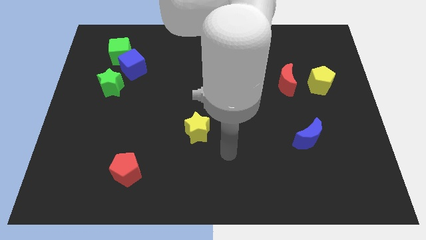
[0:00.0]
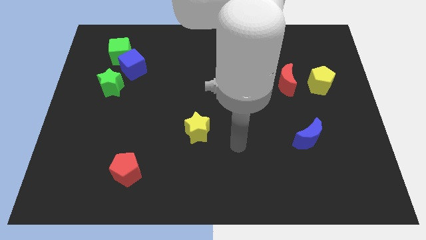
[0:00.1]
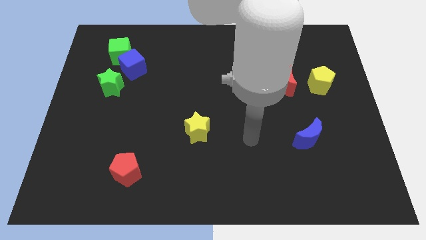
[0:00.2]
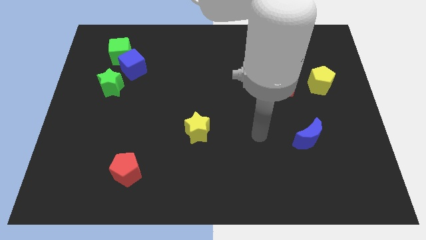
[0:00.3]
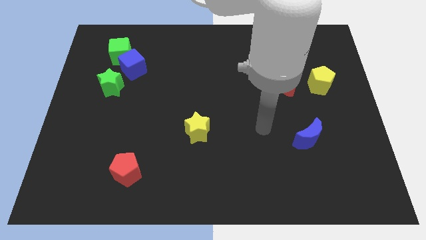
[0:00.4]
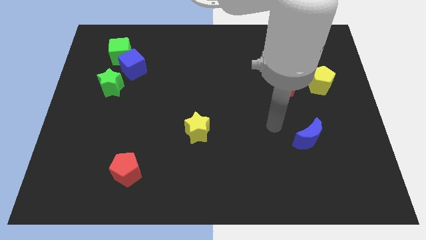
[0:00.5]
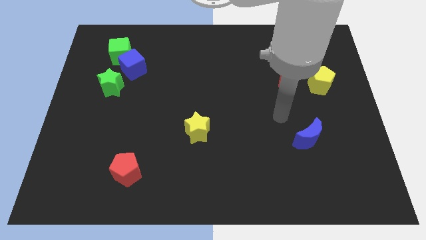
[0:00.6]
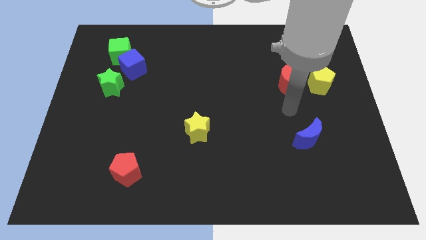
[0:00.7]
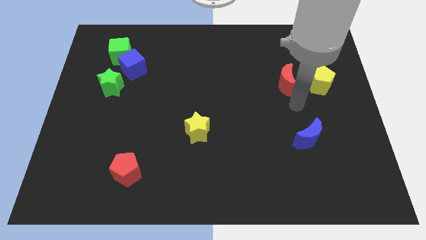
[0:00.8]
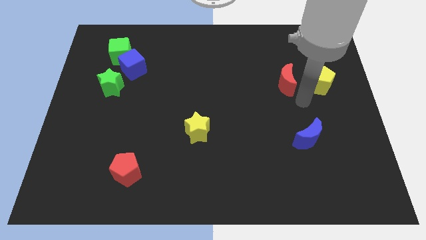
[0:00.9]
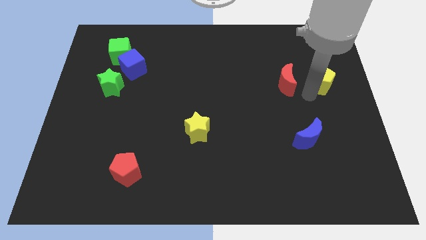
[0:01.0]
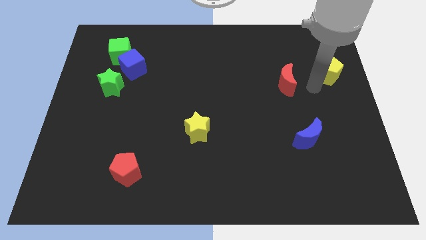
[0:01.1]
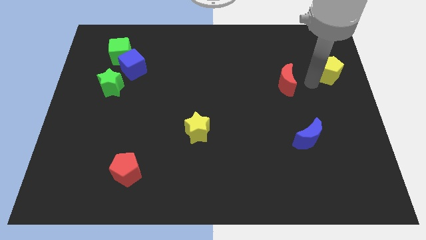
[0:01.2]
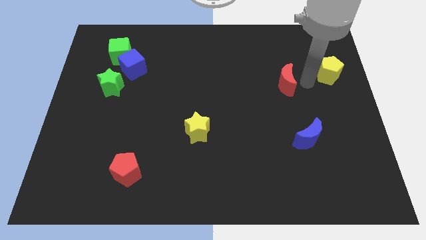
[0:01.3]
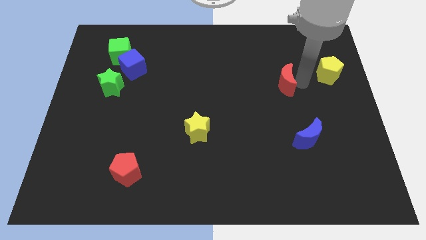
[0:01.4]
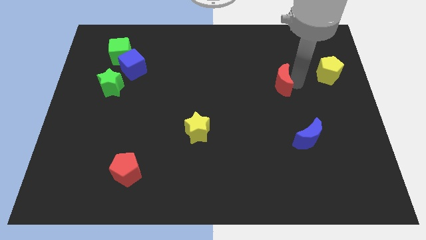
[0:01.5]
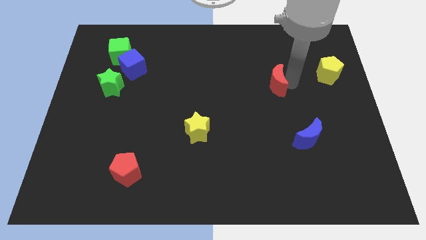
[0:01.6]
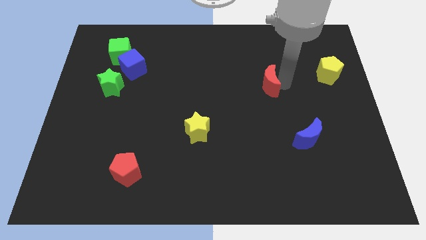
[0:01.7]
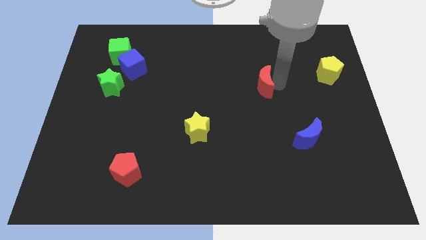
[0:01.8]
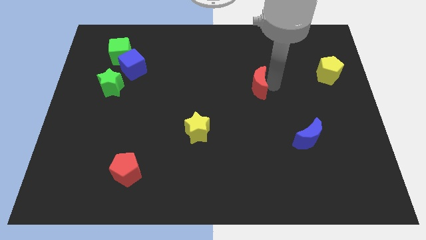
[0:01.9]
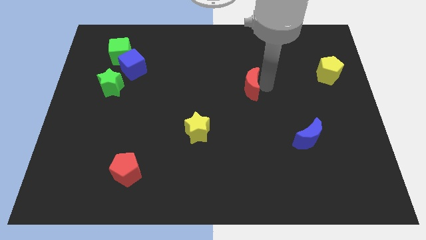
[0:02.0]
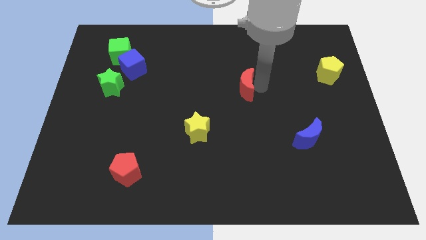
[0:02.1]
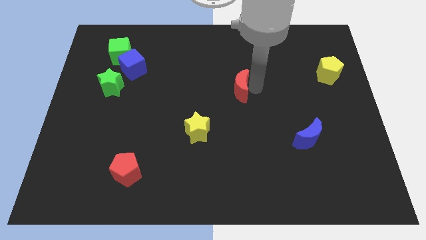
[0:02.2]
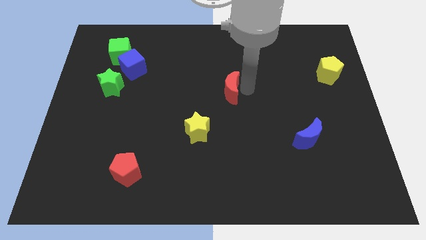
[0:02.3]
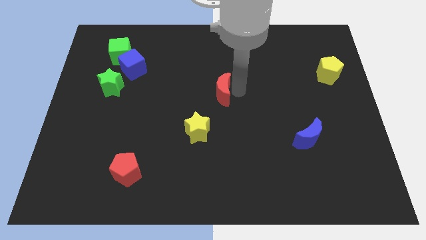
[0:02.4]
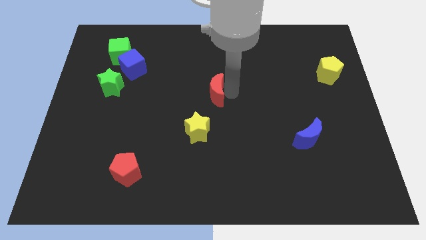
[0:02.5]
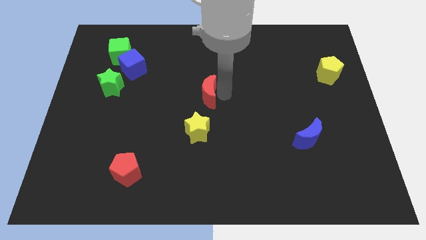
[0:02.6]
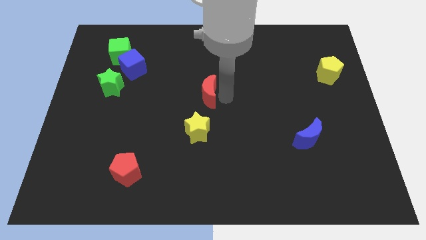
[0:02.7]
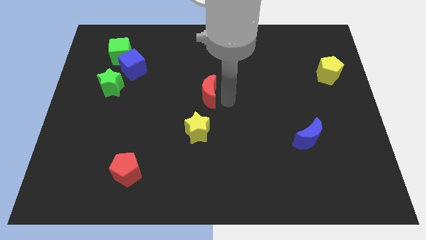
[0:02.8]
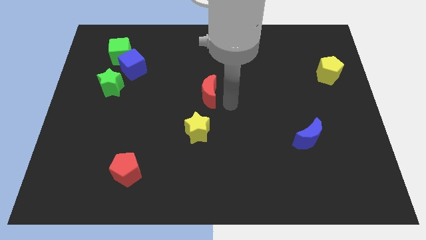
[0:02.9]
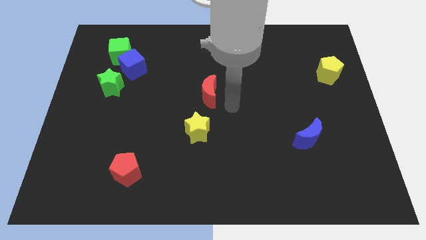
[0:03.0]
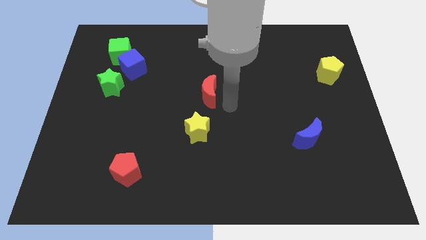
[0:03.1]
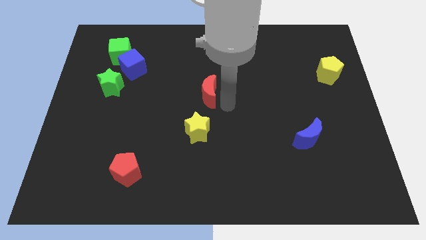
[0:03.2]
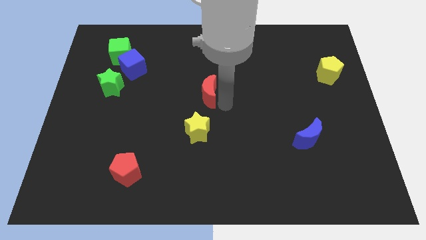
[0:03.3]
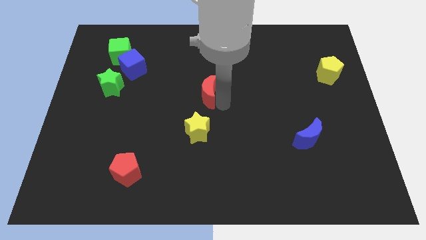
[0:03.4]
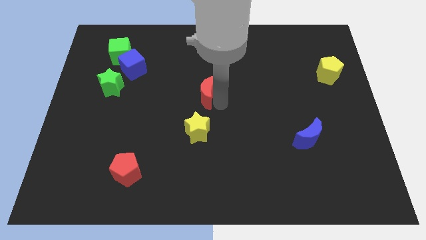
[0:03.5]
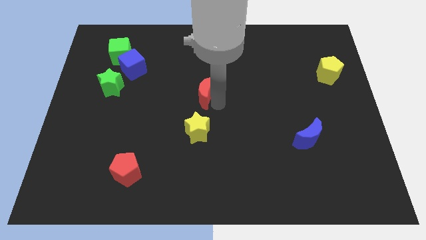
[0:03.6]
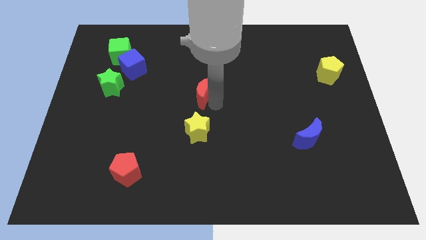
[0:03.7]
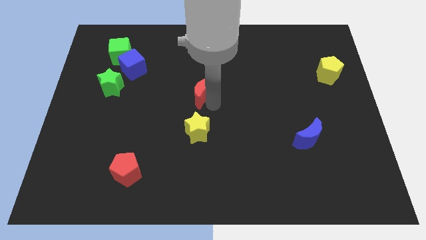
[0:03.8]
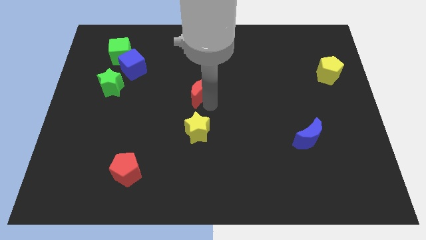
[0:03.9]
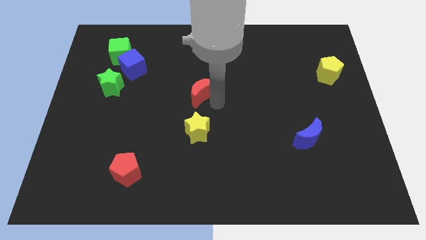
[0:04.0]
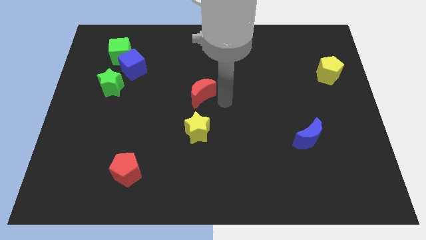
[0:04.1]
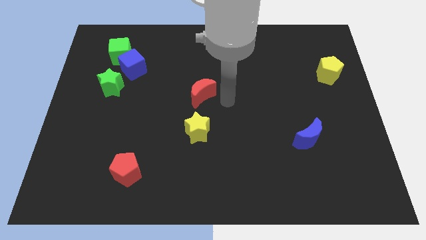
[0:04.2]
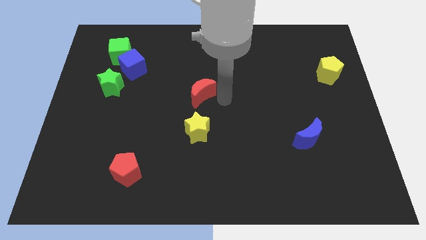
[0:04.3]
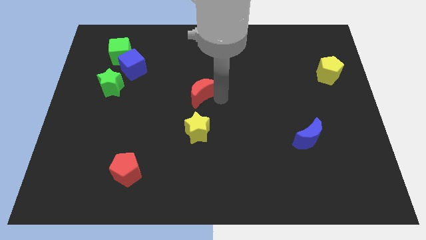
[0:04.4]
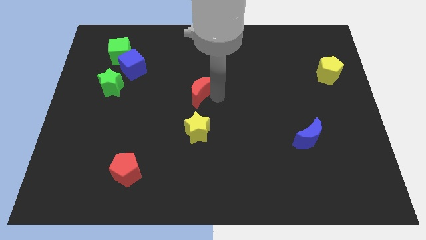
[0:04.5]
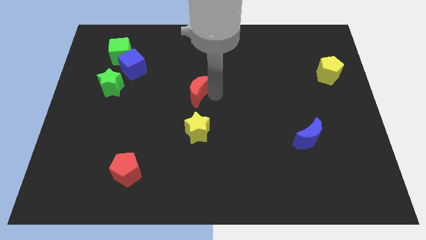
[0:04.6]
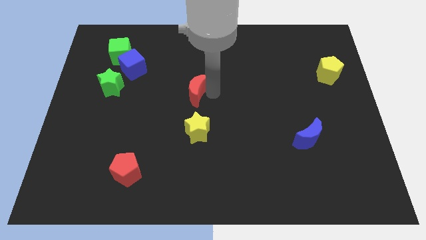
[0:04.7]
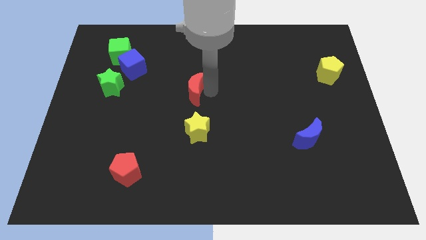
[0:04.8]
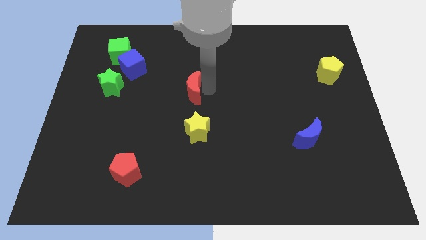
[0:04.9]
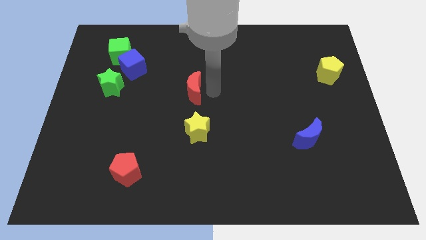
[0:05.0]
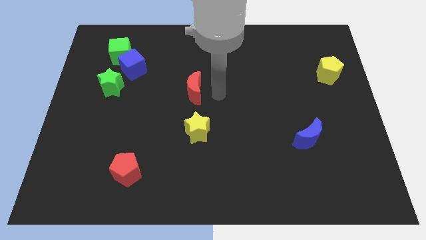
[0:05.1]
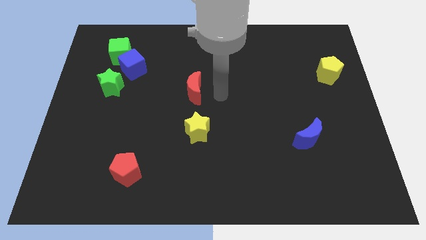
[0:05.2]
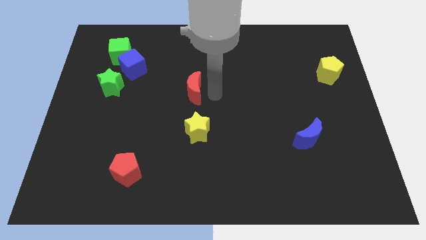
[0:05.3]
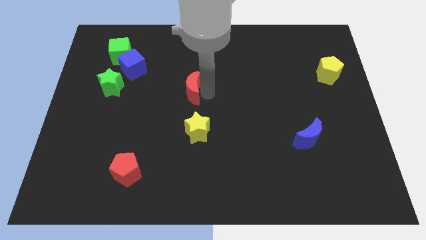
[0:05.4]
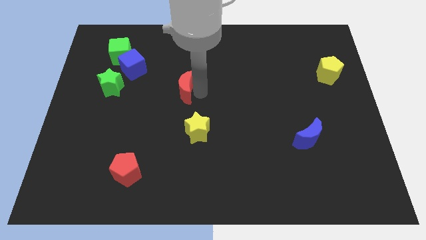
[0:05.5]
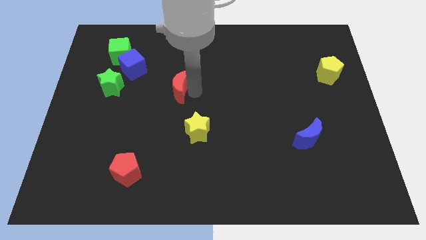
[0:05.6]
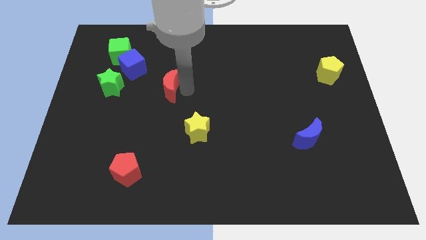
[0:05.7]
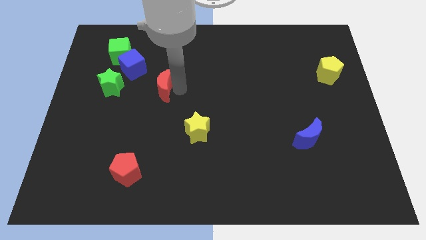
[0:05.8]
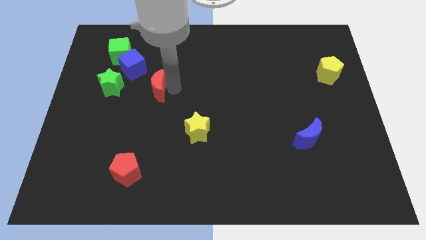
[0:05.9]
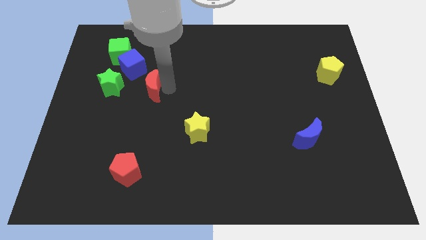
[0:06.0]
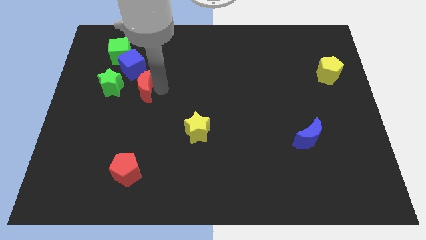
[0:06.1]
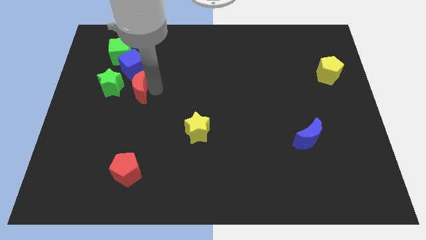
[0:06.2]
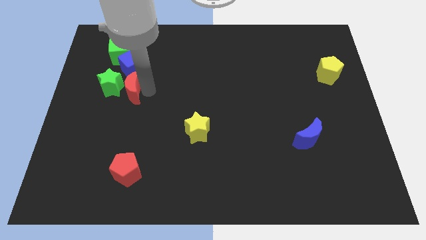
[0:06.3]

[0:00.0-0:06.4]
put the red moon close to the green star

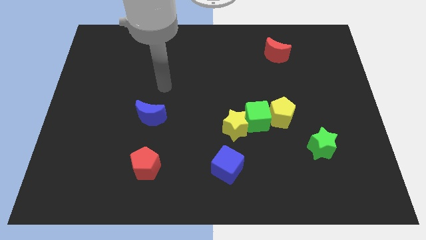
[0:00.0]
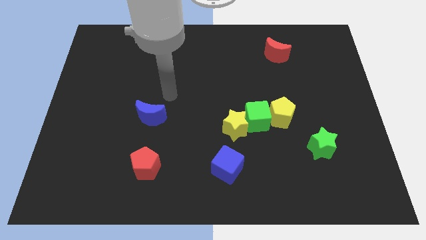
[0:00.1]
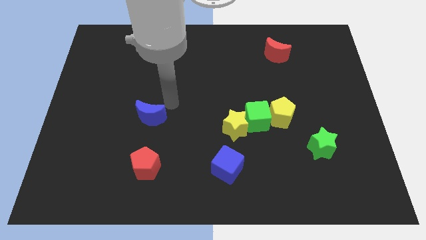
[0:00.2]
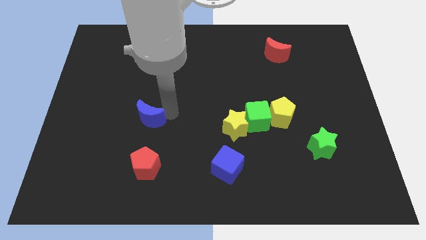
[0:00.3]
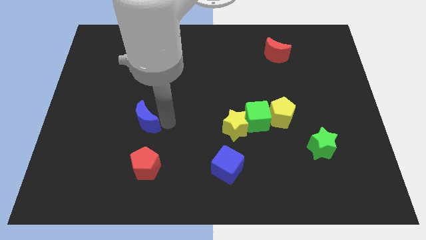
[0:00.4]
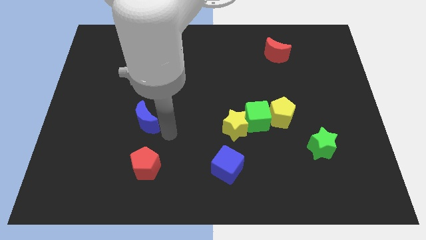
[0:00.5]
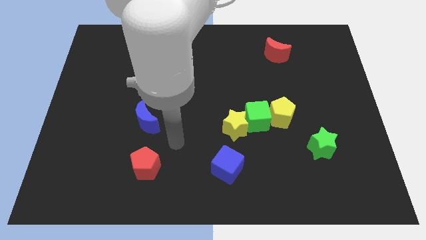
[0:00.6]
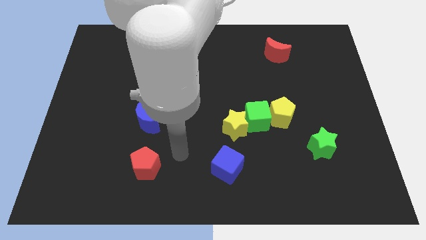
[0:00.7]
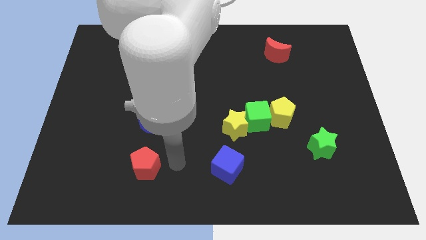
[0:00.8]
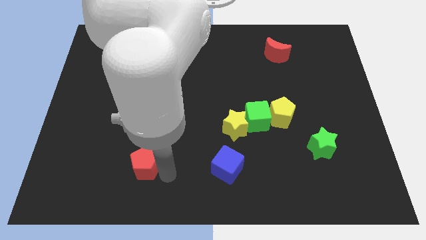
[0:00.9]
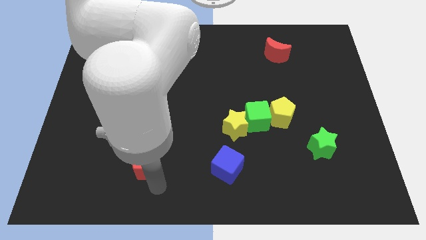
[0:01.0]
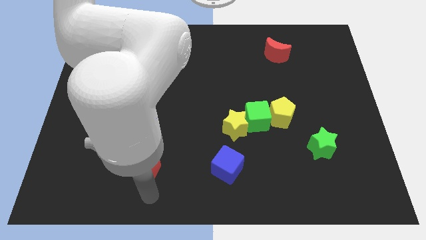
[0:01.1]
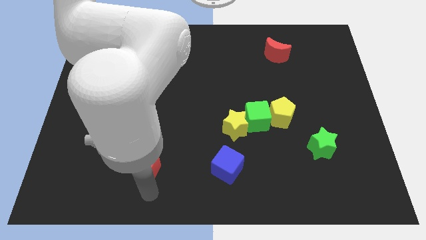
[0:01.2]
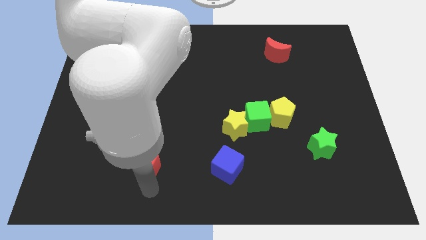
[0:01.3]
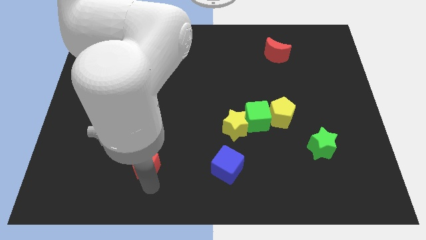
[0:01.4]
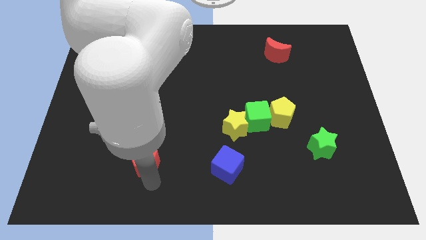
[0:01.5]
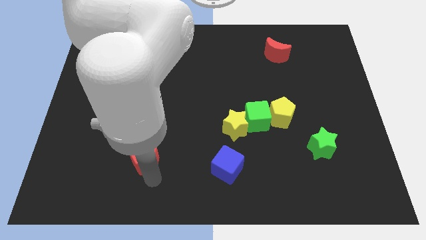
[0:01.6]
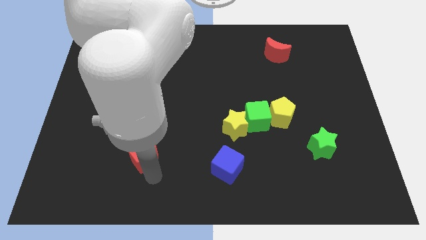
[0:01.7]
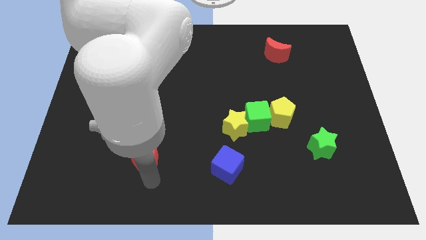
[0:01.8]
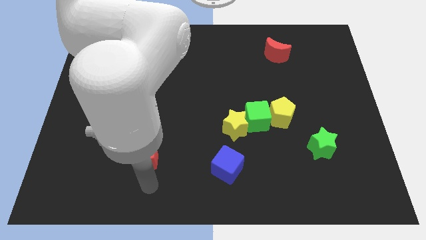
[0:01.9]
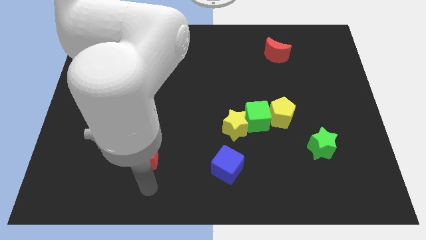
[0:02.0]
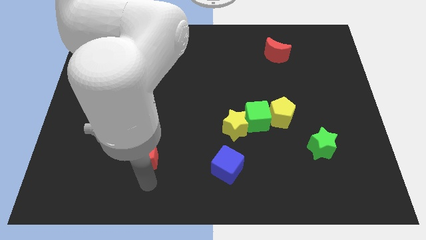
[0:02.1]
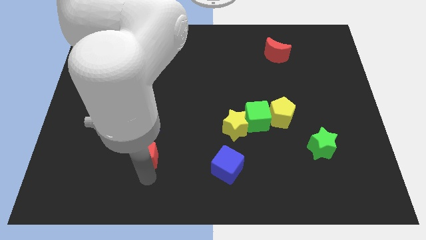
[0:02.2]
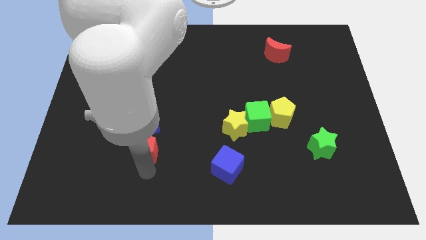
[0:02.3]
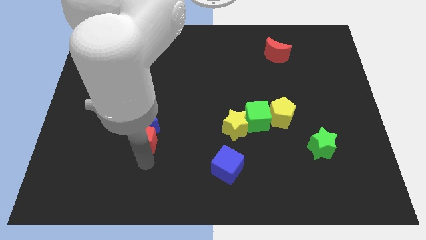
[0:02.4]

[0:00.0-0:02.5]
move the red pentagon close to the blue moon
